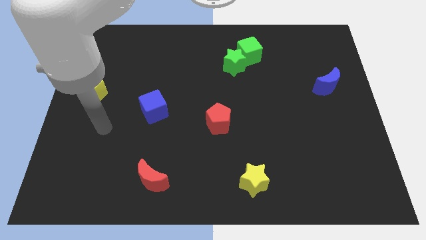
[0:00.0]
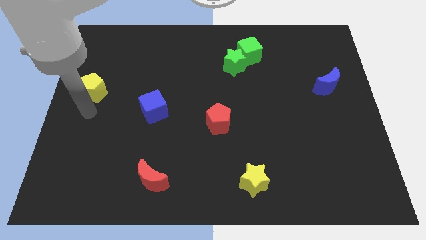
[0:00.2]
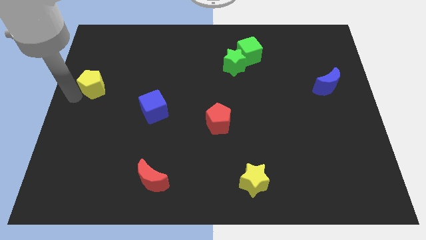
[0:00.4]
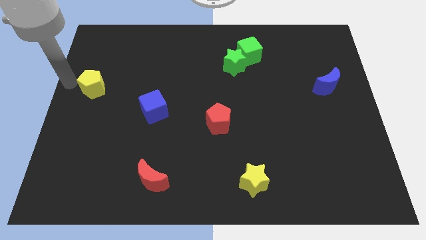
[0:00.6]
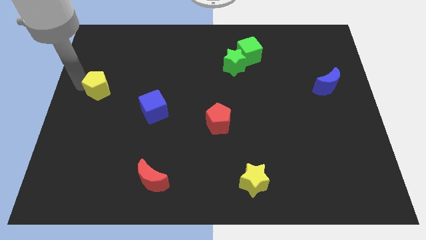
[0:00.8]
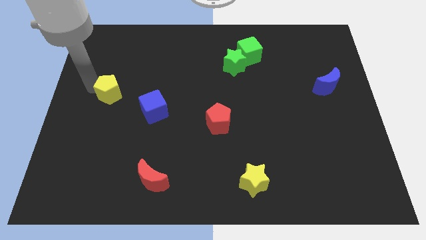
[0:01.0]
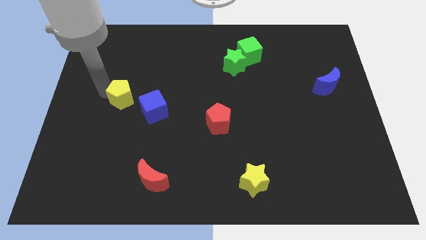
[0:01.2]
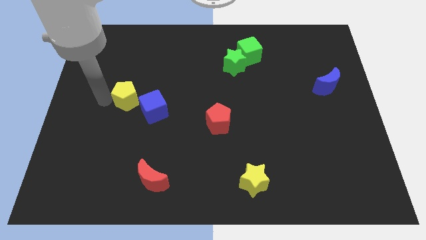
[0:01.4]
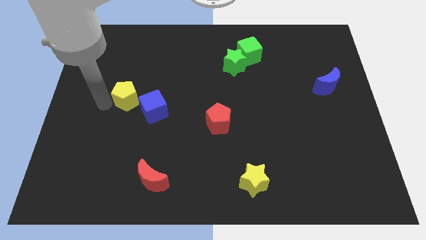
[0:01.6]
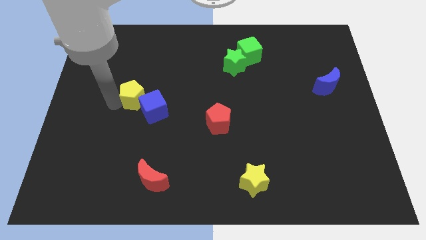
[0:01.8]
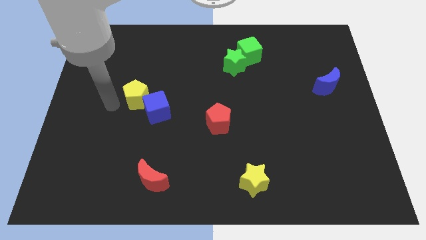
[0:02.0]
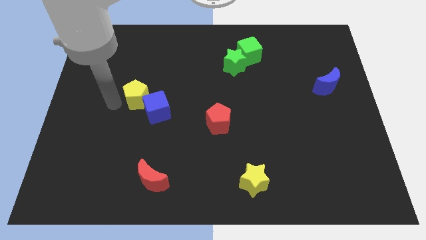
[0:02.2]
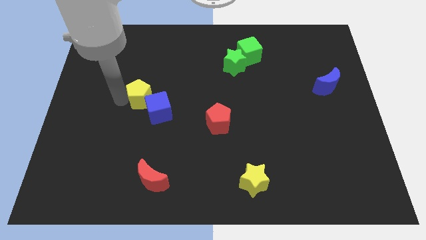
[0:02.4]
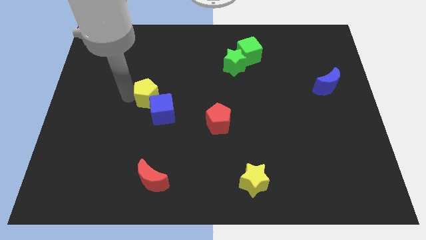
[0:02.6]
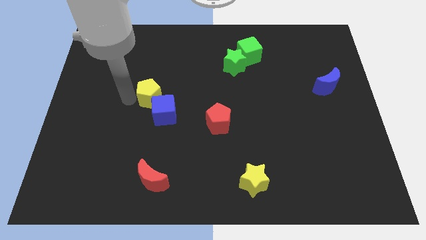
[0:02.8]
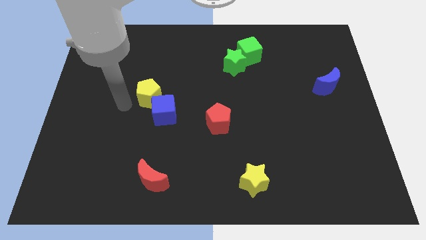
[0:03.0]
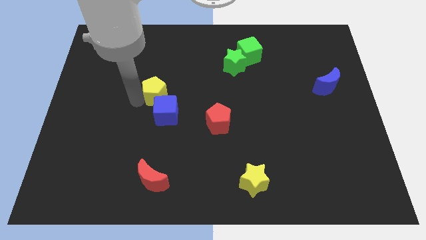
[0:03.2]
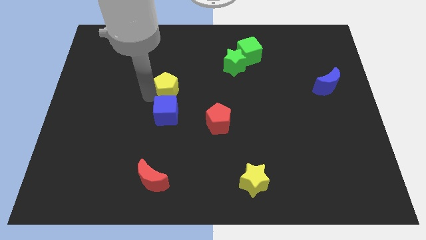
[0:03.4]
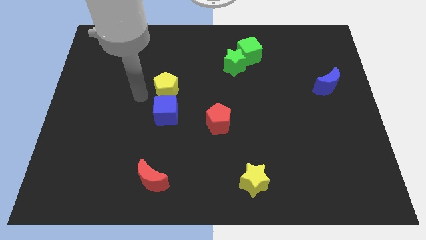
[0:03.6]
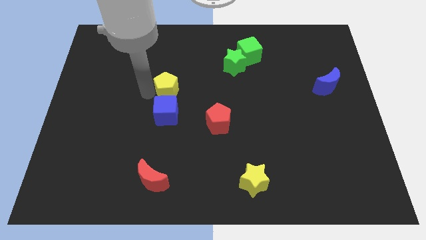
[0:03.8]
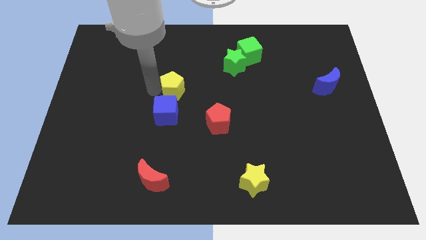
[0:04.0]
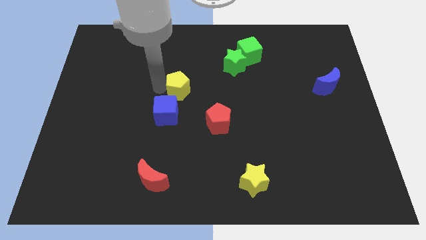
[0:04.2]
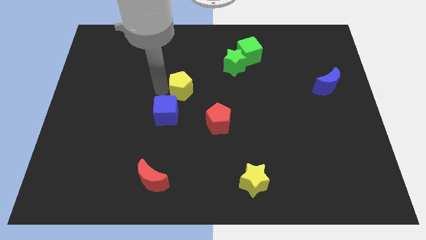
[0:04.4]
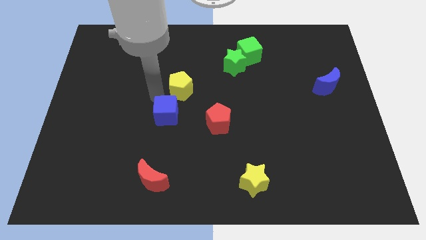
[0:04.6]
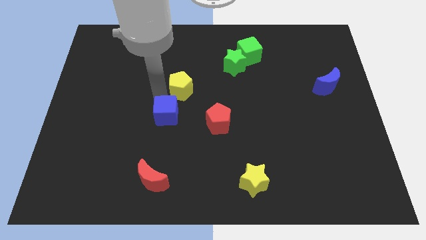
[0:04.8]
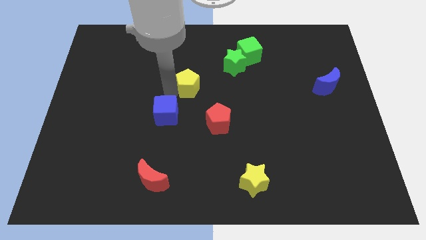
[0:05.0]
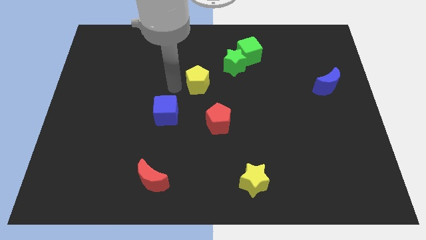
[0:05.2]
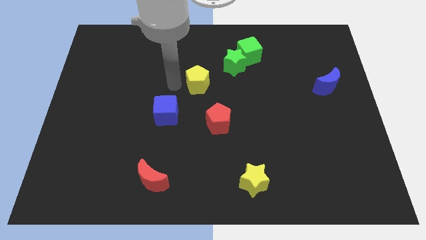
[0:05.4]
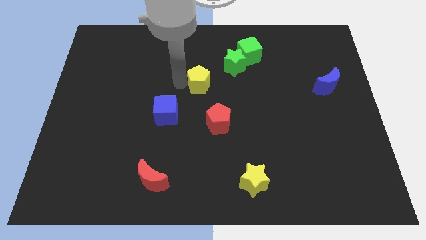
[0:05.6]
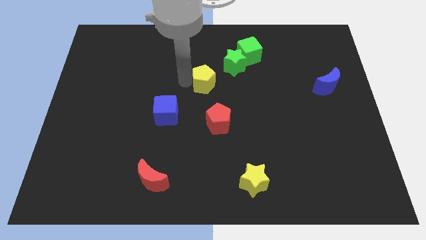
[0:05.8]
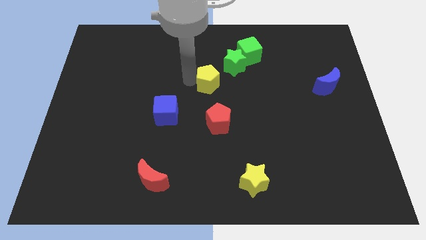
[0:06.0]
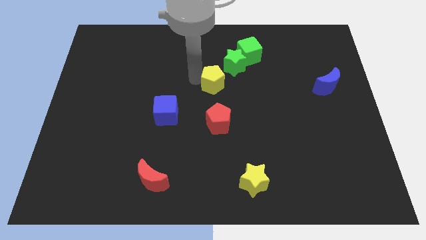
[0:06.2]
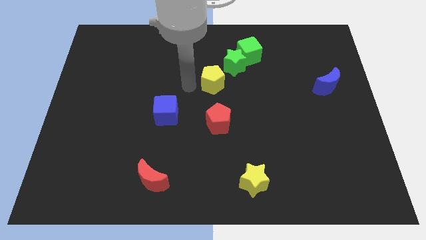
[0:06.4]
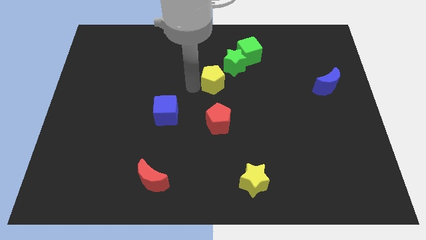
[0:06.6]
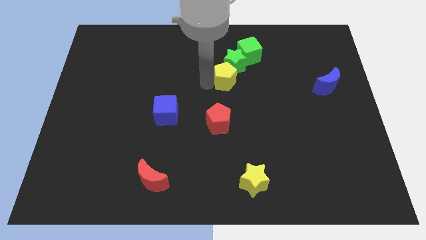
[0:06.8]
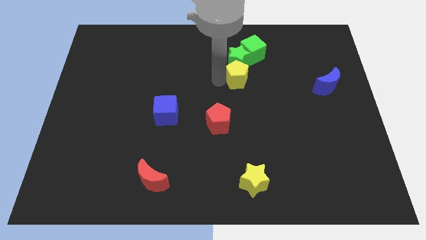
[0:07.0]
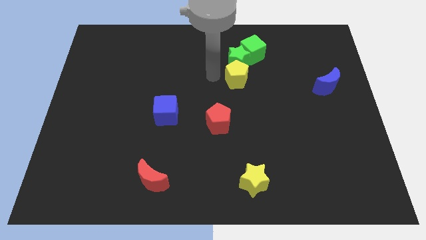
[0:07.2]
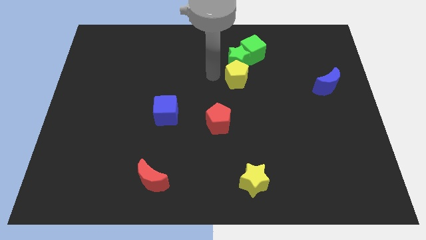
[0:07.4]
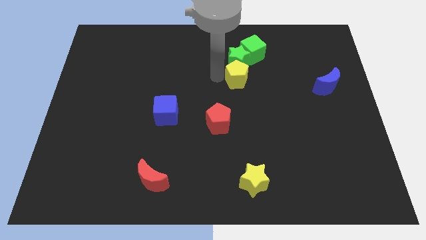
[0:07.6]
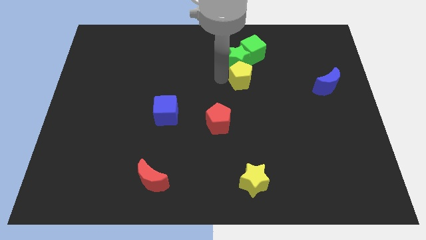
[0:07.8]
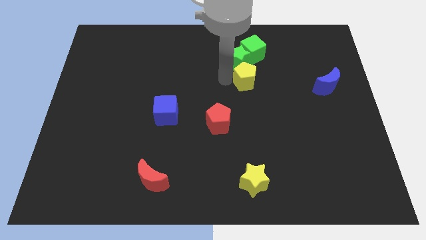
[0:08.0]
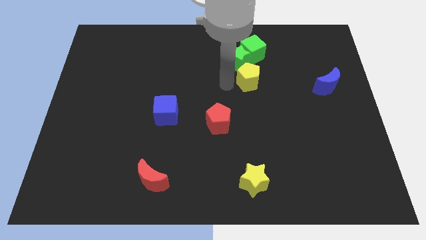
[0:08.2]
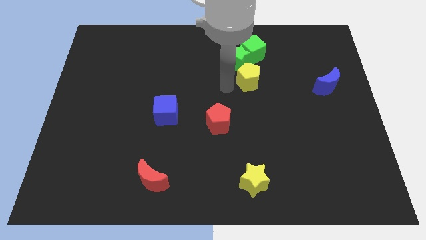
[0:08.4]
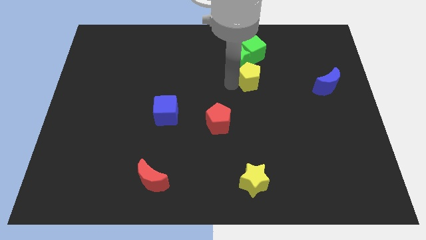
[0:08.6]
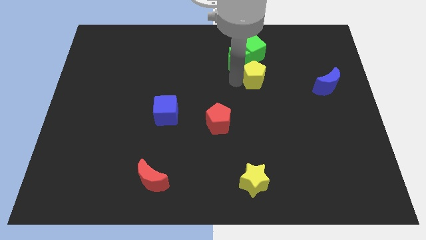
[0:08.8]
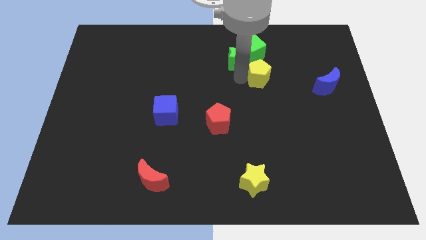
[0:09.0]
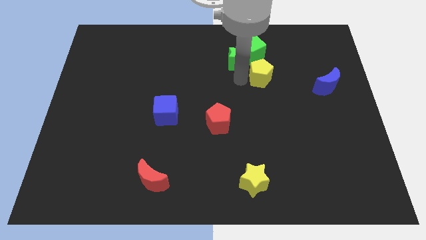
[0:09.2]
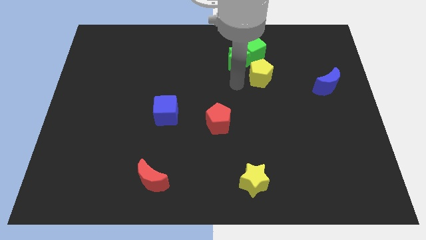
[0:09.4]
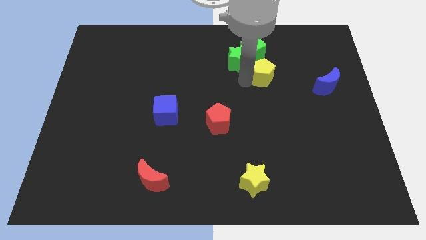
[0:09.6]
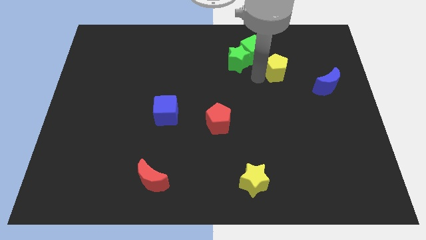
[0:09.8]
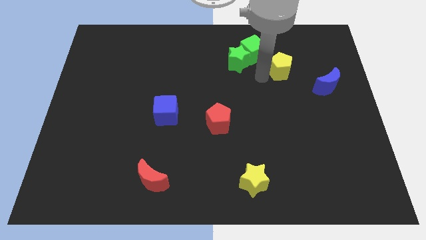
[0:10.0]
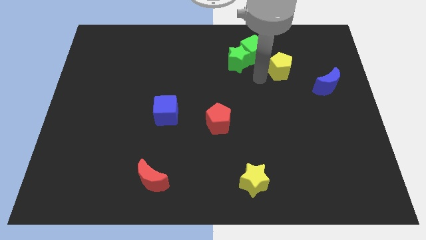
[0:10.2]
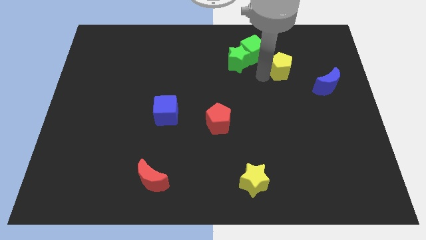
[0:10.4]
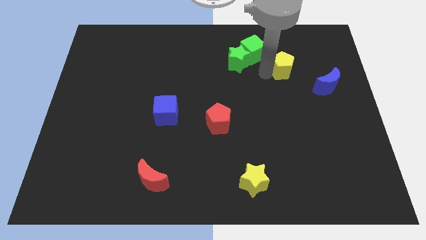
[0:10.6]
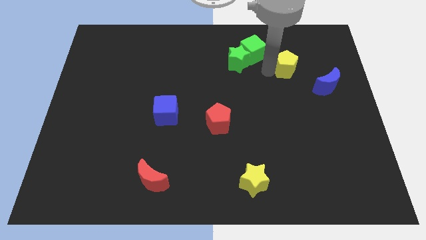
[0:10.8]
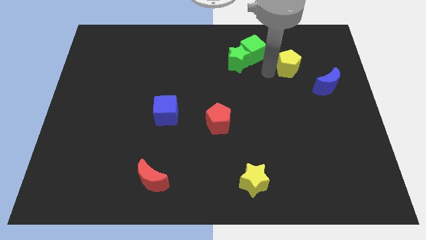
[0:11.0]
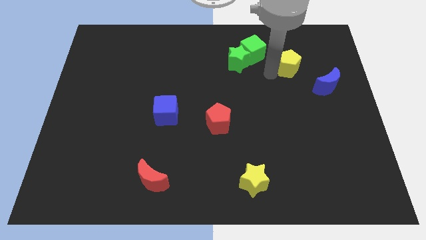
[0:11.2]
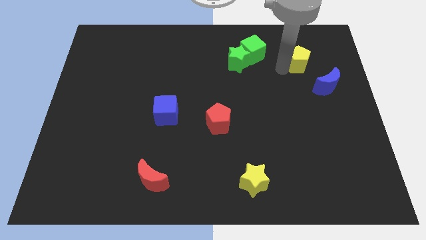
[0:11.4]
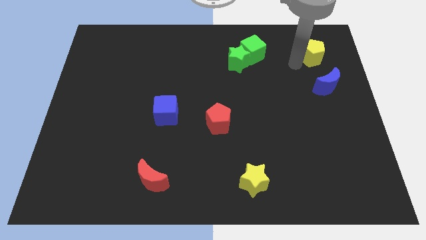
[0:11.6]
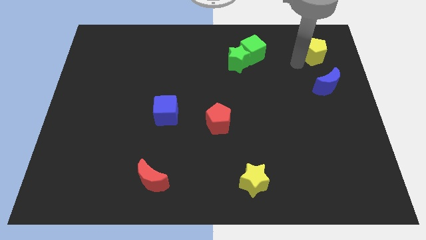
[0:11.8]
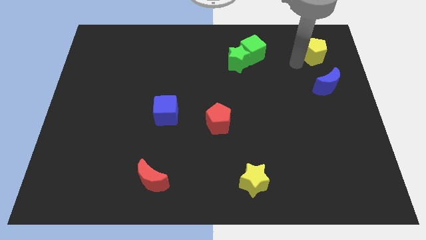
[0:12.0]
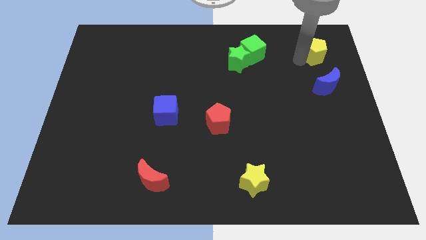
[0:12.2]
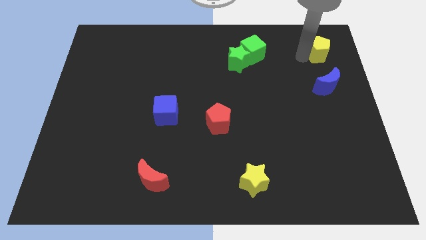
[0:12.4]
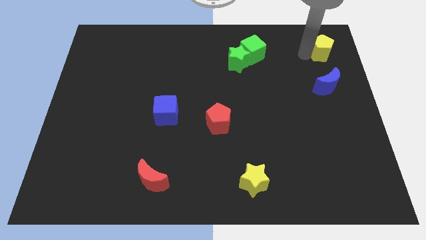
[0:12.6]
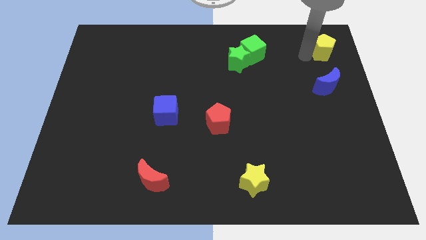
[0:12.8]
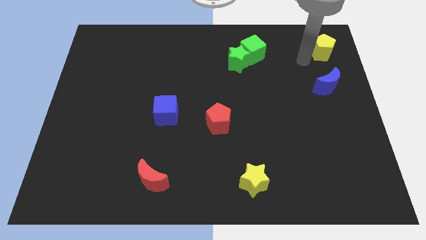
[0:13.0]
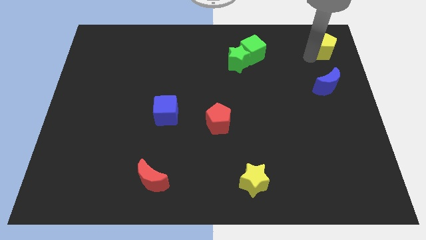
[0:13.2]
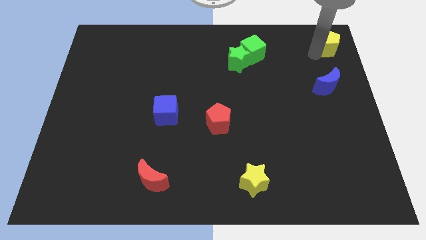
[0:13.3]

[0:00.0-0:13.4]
push the yellow pentagon to the top right of the board
